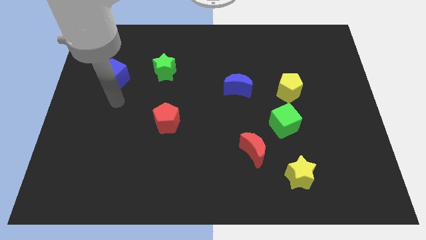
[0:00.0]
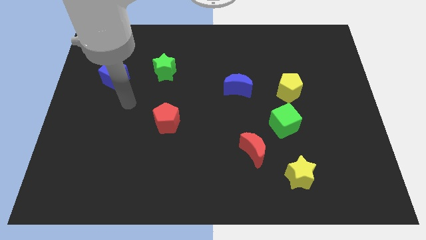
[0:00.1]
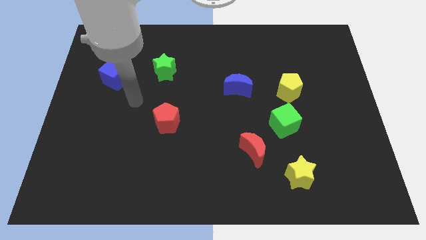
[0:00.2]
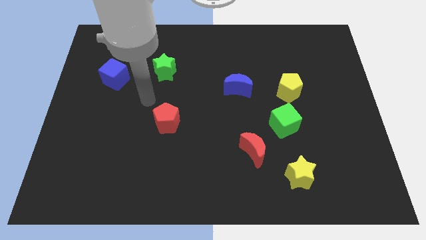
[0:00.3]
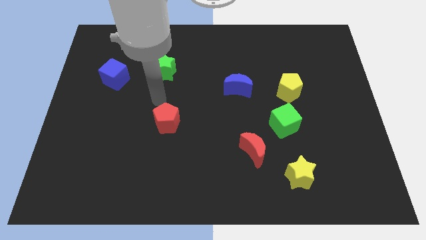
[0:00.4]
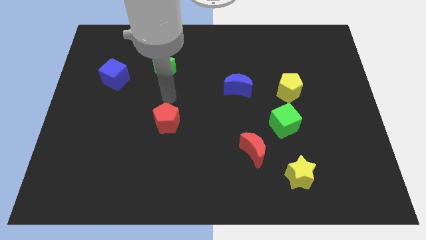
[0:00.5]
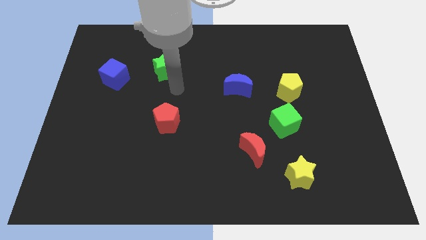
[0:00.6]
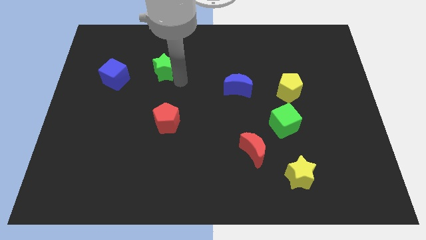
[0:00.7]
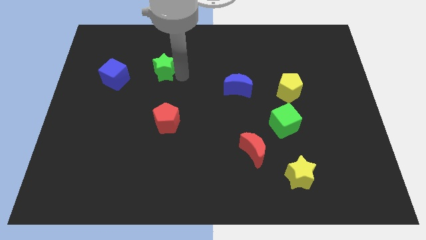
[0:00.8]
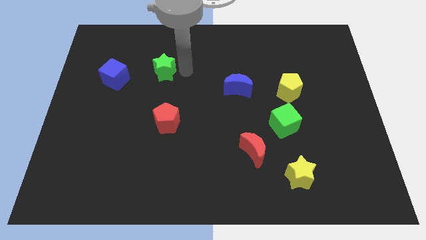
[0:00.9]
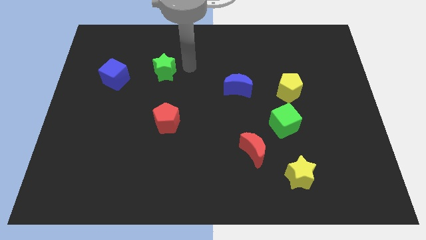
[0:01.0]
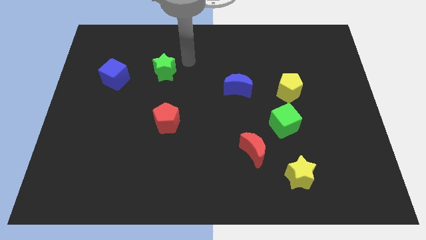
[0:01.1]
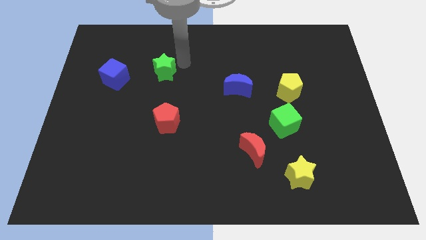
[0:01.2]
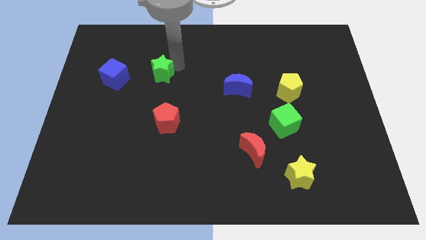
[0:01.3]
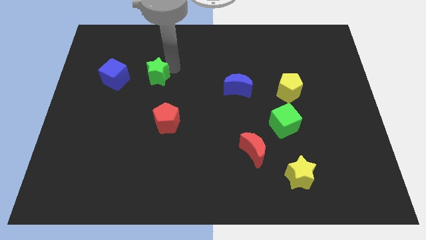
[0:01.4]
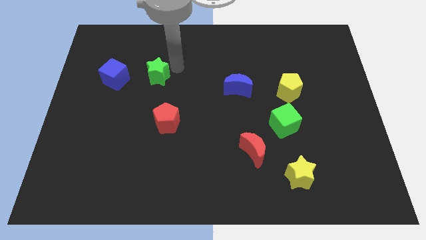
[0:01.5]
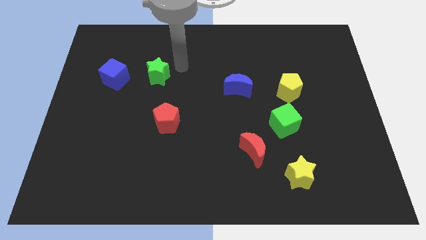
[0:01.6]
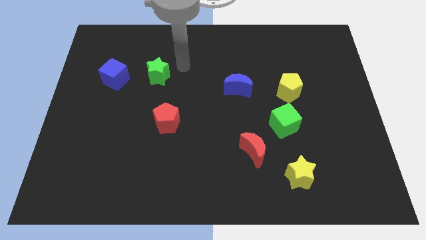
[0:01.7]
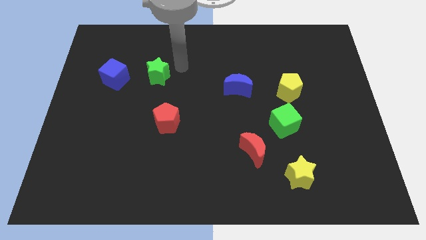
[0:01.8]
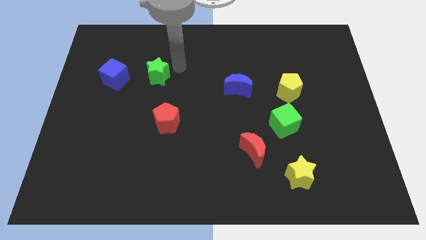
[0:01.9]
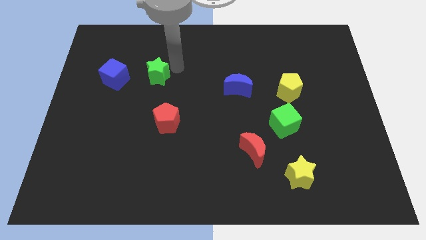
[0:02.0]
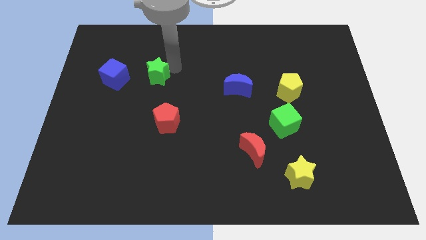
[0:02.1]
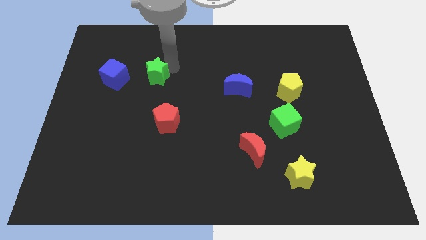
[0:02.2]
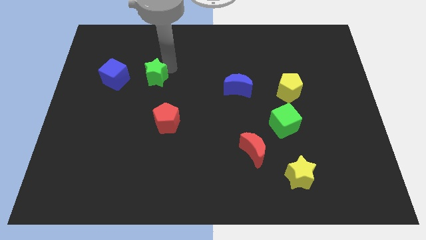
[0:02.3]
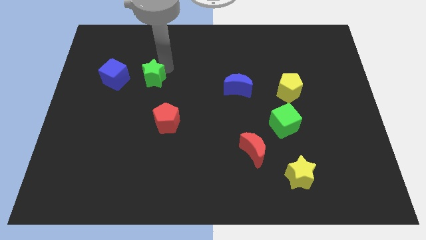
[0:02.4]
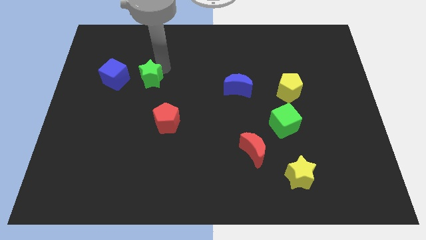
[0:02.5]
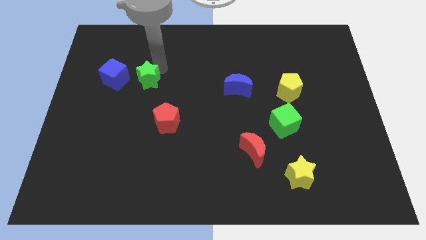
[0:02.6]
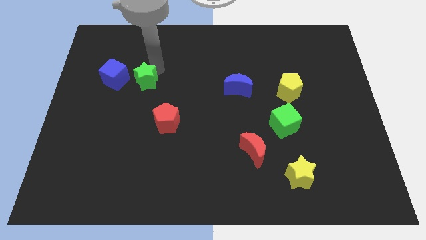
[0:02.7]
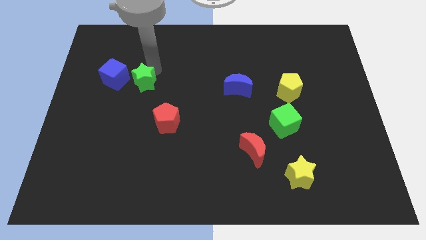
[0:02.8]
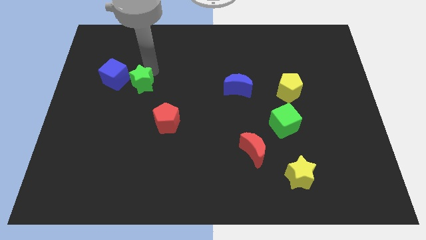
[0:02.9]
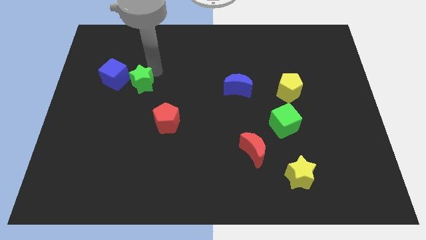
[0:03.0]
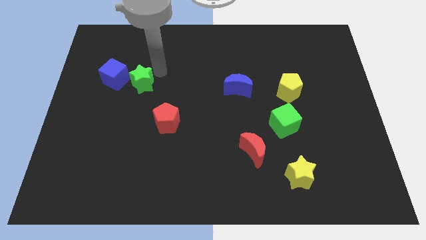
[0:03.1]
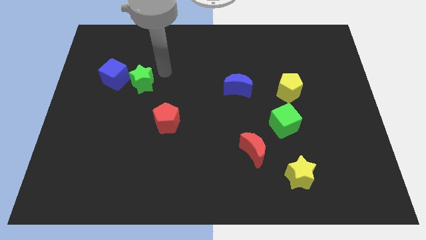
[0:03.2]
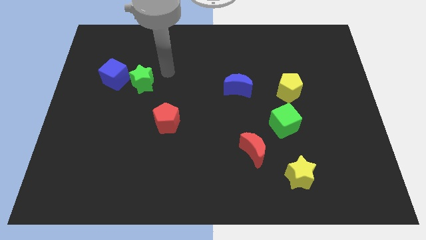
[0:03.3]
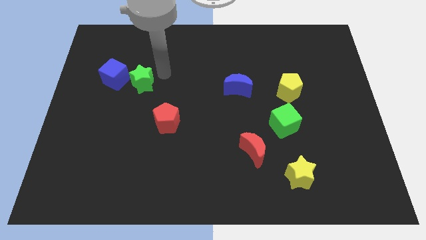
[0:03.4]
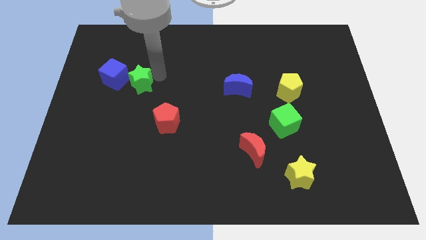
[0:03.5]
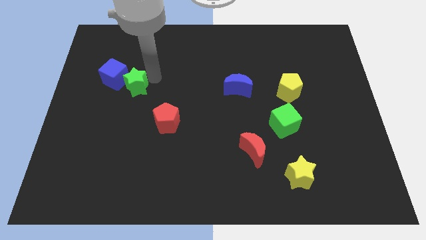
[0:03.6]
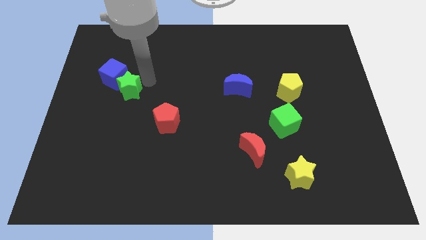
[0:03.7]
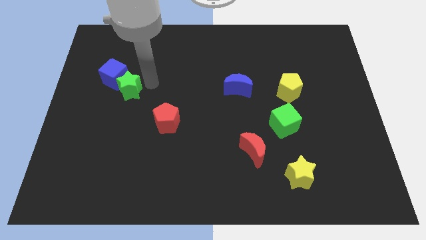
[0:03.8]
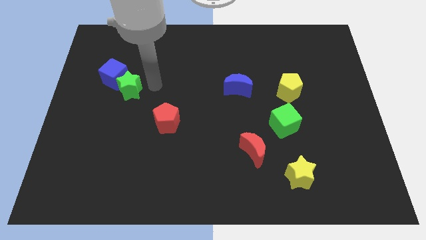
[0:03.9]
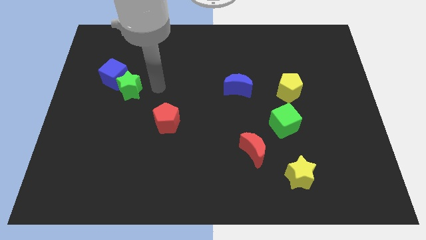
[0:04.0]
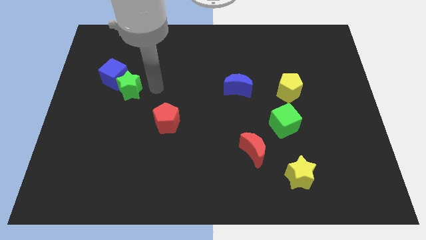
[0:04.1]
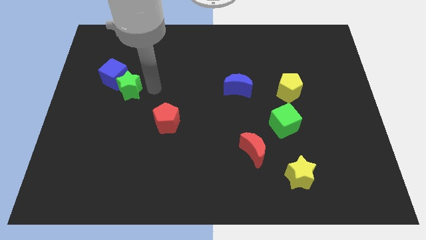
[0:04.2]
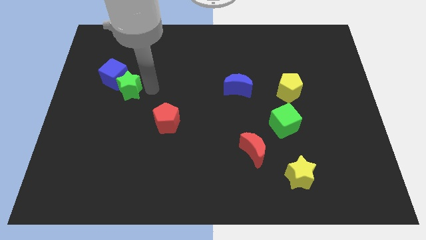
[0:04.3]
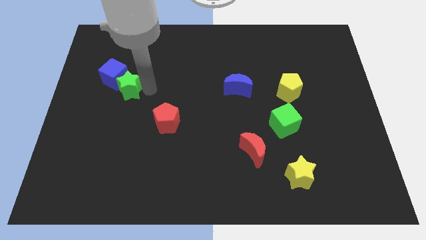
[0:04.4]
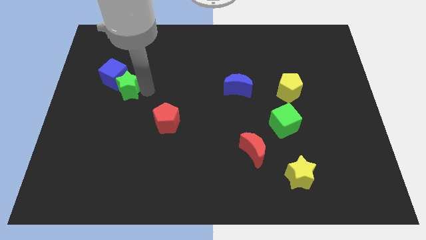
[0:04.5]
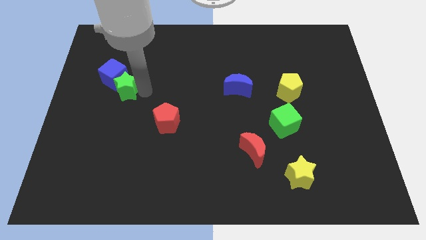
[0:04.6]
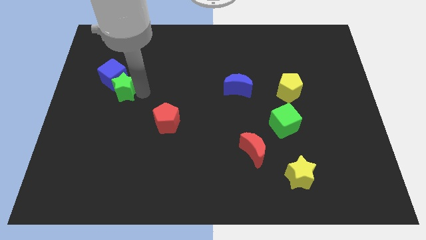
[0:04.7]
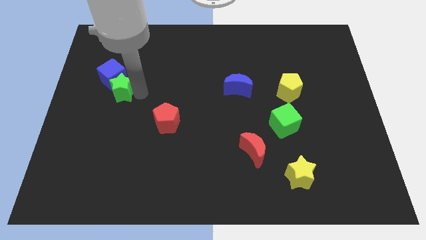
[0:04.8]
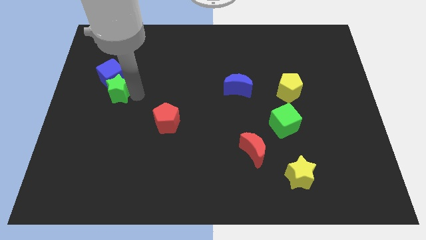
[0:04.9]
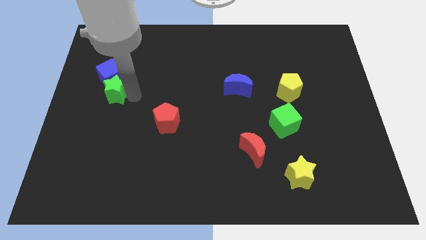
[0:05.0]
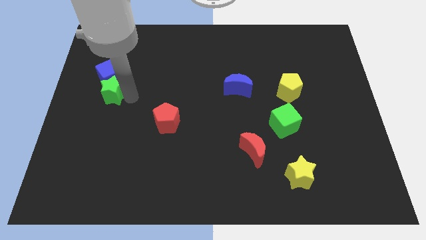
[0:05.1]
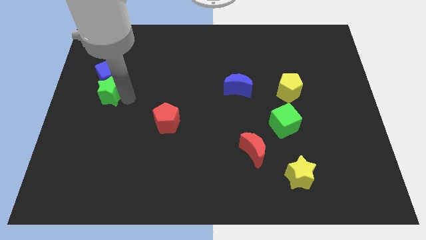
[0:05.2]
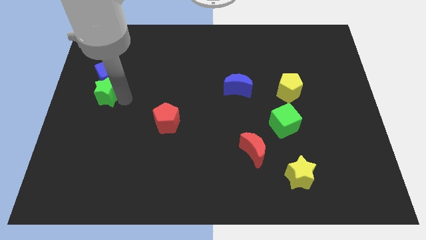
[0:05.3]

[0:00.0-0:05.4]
put the green star to the left side of the board

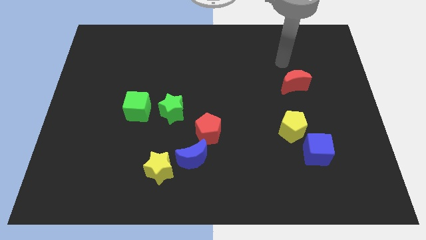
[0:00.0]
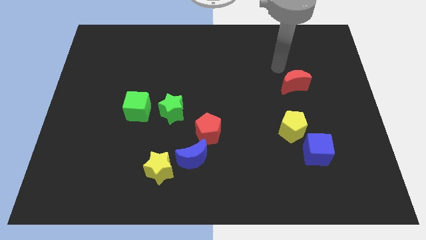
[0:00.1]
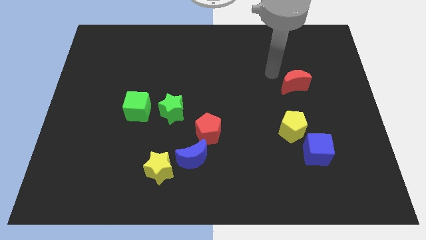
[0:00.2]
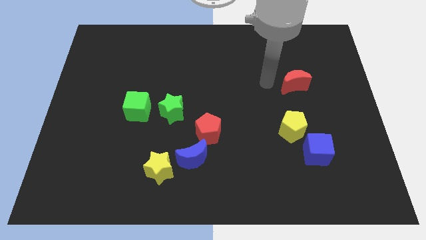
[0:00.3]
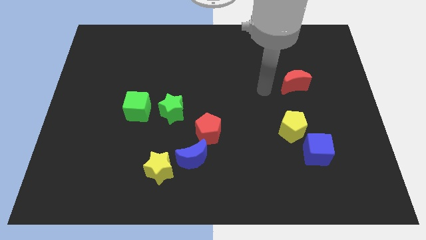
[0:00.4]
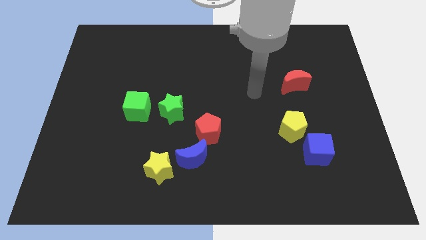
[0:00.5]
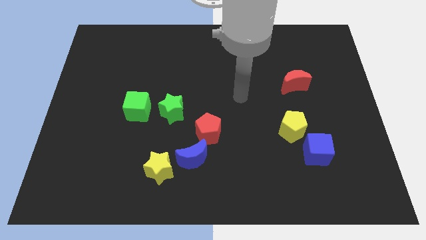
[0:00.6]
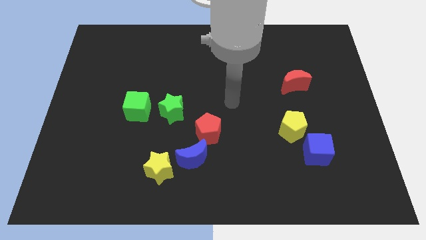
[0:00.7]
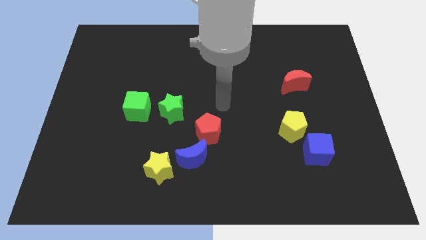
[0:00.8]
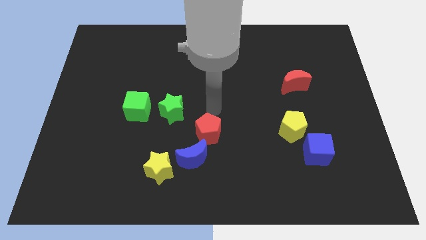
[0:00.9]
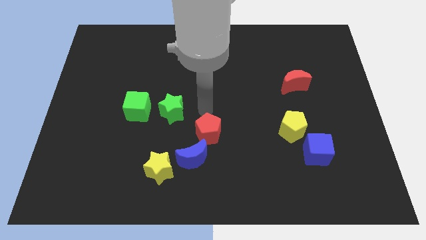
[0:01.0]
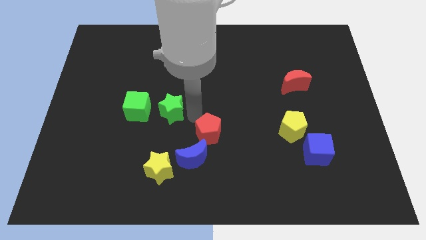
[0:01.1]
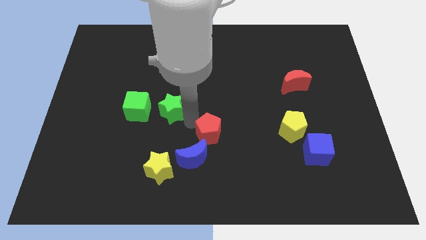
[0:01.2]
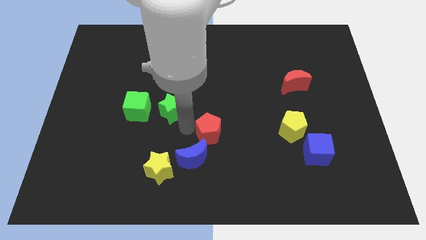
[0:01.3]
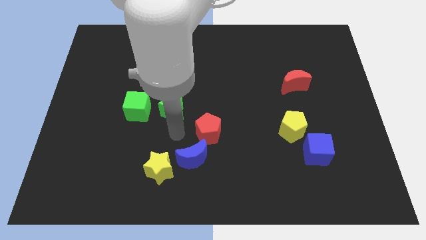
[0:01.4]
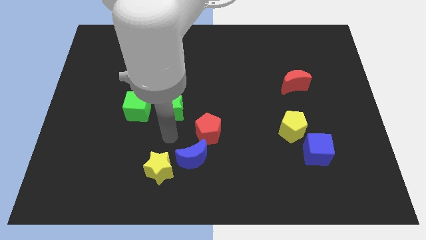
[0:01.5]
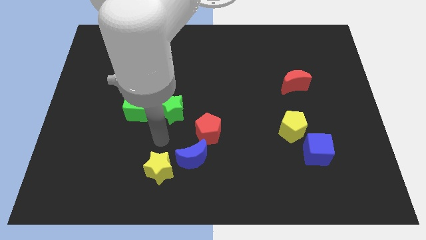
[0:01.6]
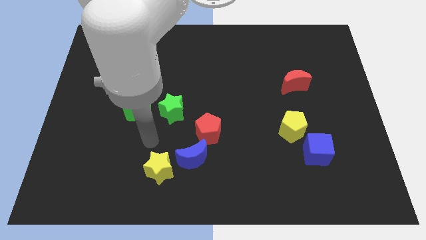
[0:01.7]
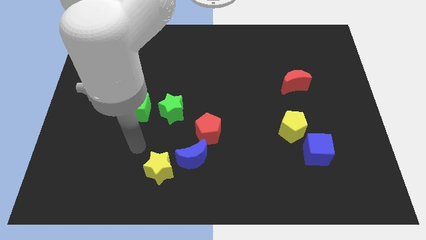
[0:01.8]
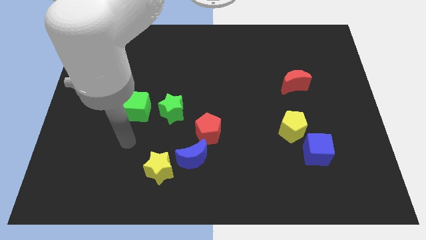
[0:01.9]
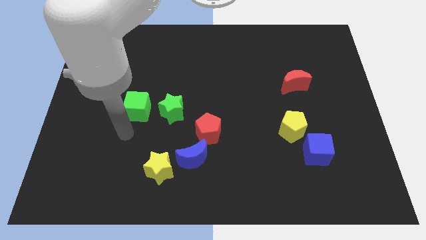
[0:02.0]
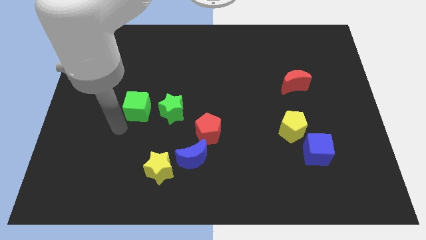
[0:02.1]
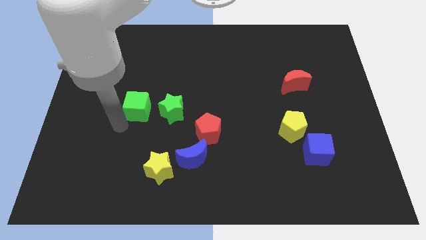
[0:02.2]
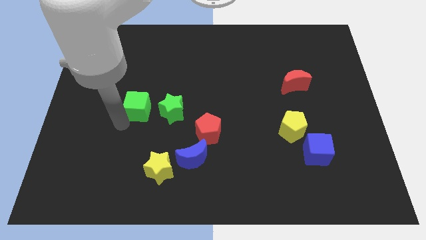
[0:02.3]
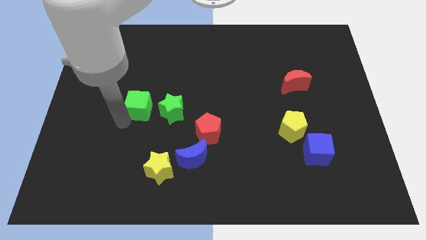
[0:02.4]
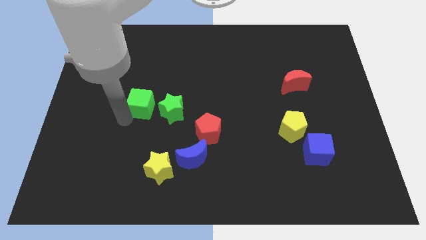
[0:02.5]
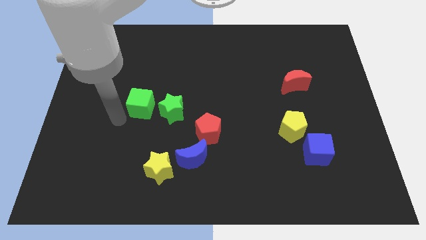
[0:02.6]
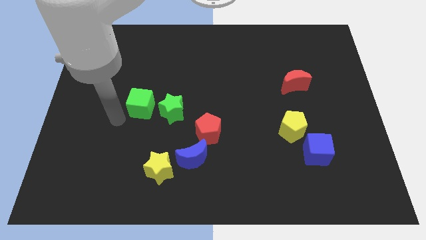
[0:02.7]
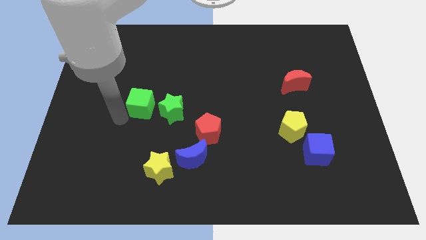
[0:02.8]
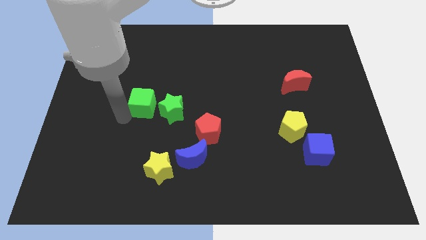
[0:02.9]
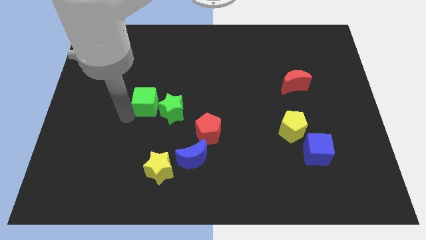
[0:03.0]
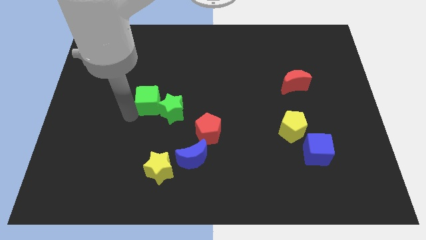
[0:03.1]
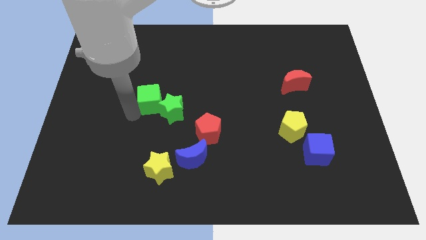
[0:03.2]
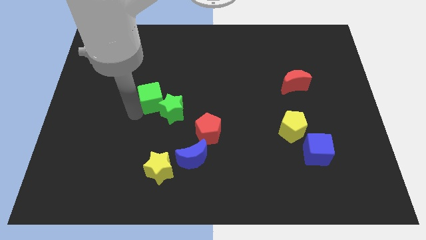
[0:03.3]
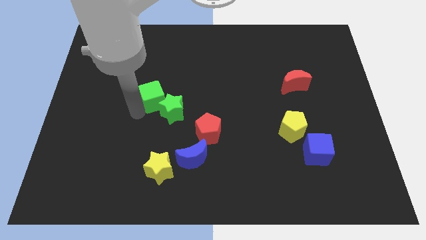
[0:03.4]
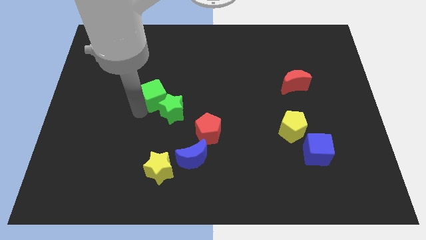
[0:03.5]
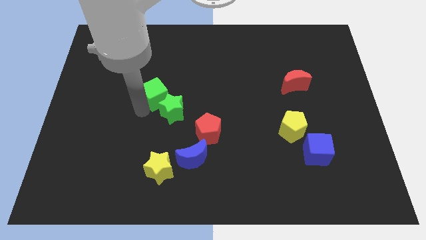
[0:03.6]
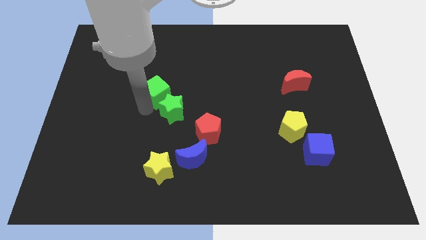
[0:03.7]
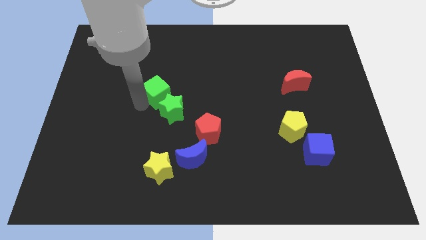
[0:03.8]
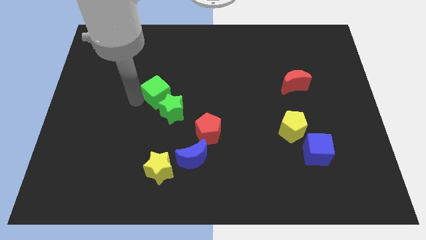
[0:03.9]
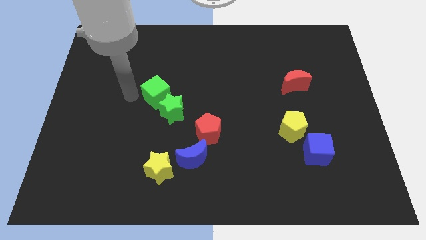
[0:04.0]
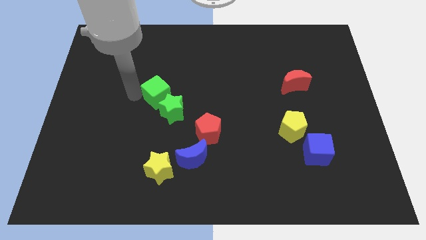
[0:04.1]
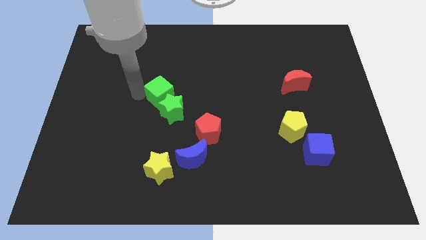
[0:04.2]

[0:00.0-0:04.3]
put the green cube to the middle
